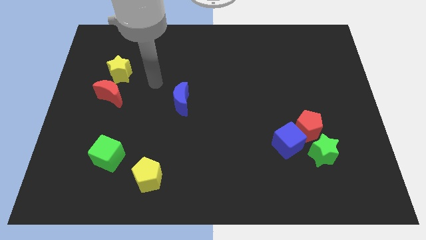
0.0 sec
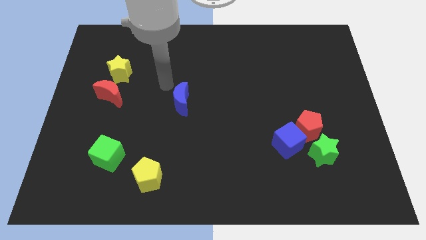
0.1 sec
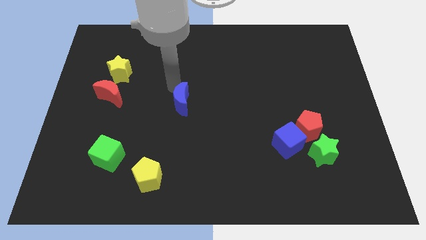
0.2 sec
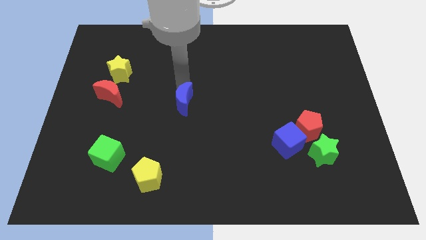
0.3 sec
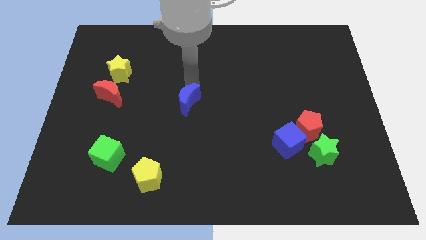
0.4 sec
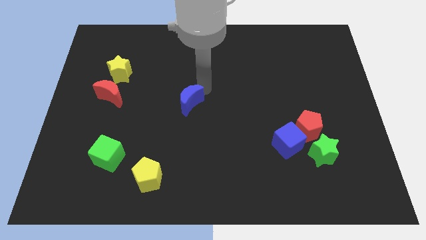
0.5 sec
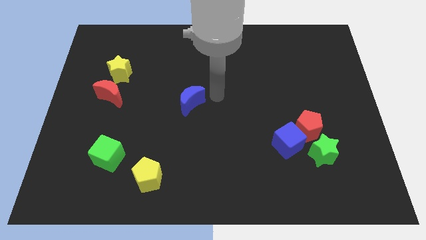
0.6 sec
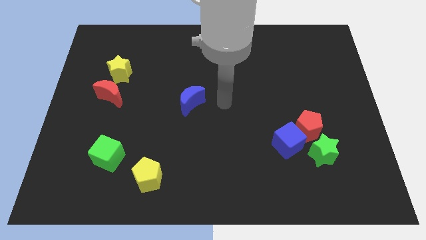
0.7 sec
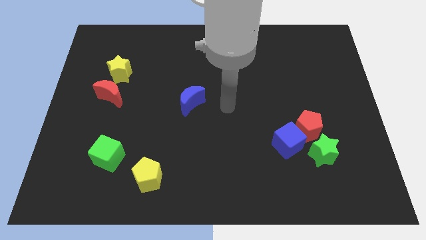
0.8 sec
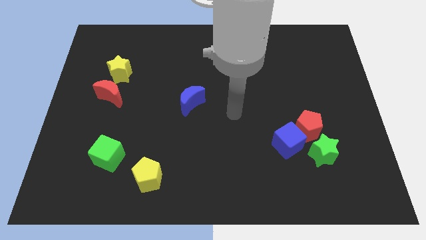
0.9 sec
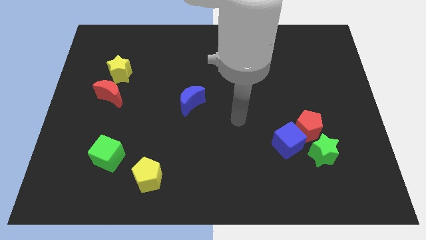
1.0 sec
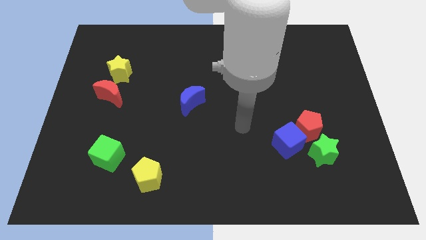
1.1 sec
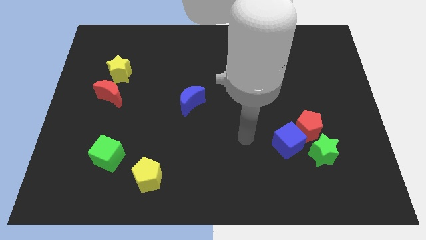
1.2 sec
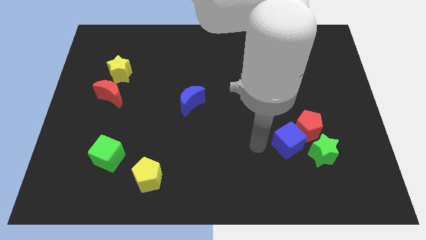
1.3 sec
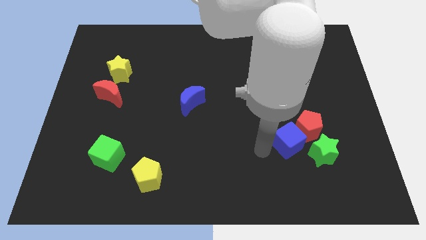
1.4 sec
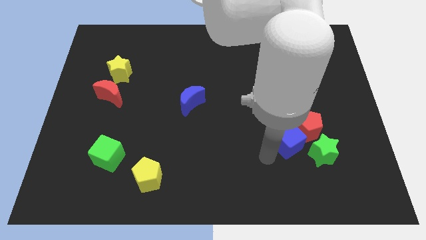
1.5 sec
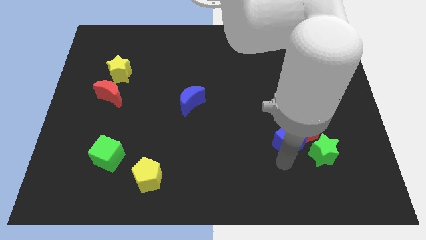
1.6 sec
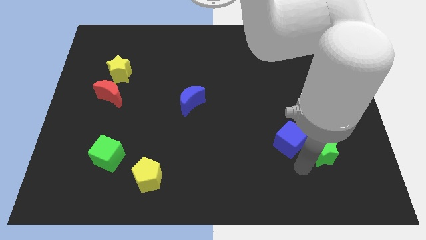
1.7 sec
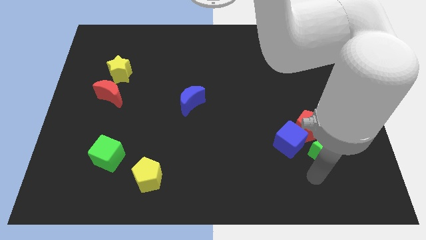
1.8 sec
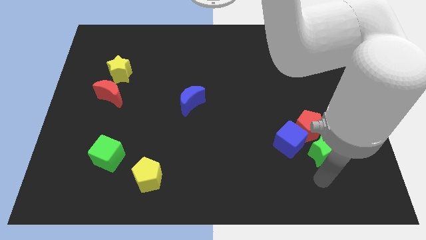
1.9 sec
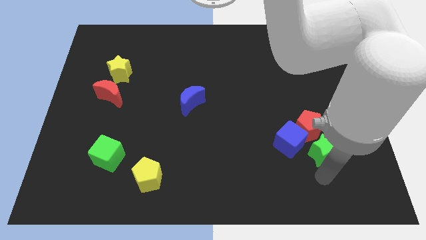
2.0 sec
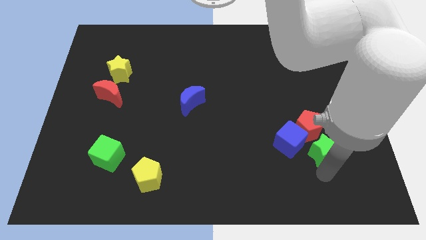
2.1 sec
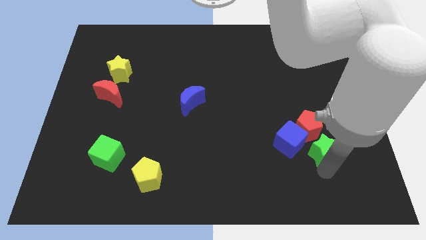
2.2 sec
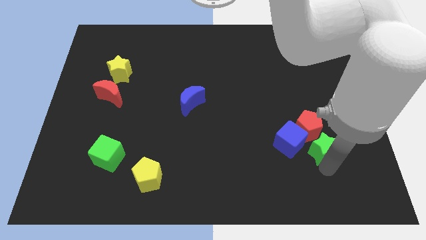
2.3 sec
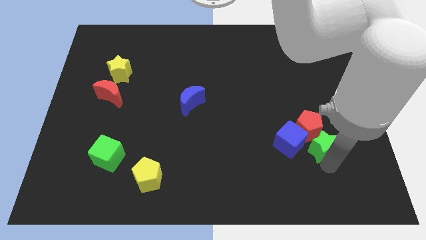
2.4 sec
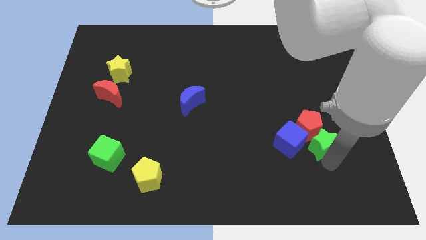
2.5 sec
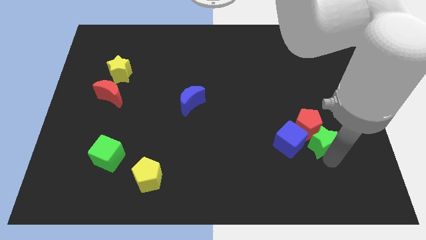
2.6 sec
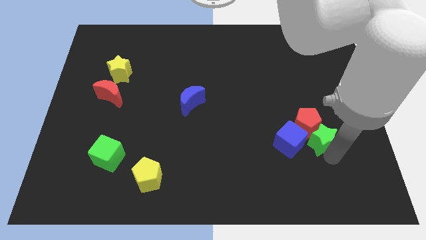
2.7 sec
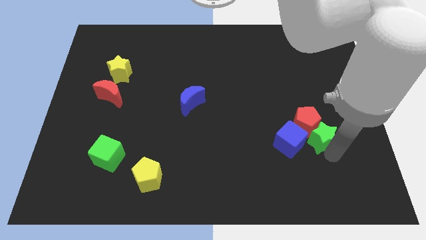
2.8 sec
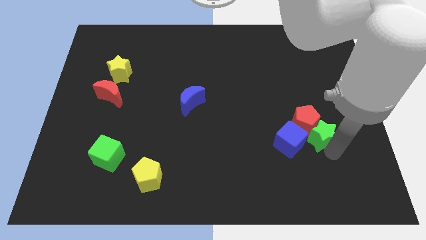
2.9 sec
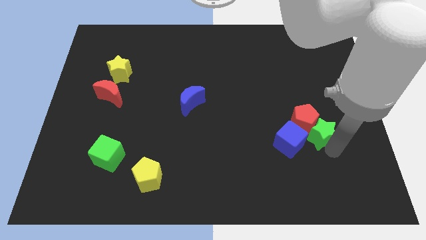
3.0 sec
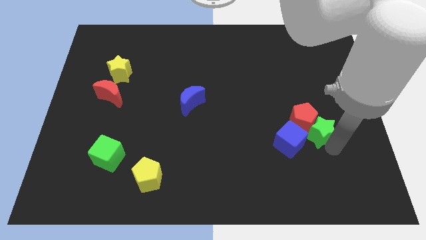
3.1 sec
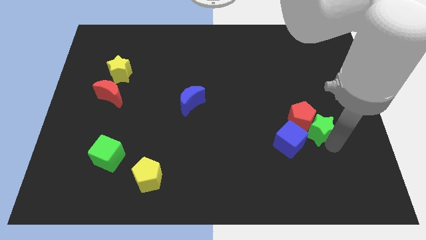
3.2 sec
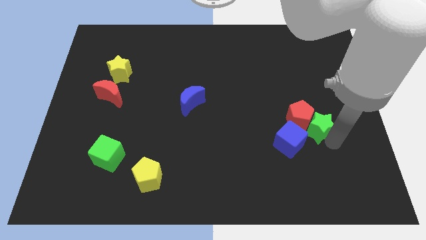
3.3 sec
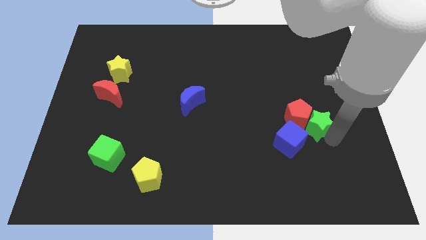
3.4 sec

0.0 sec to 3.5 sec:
slightly move the green star upwards

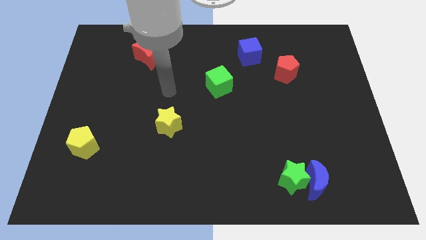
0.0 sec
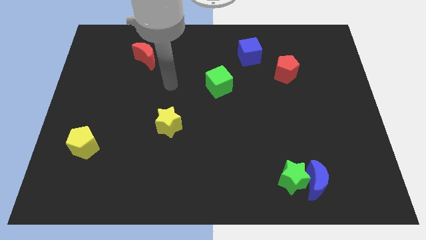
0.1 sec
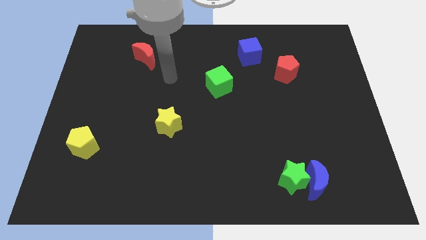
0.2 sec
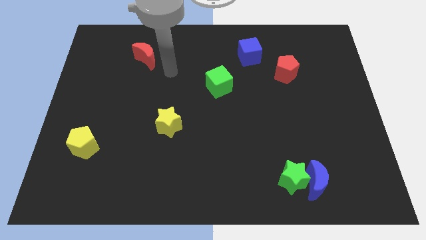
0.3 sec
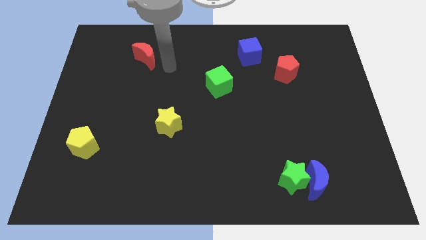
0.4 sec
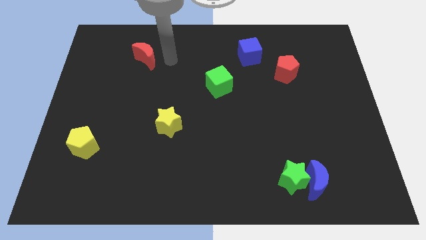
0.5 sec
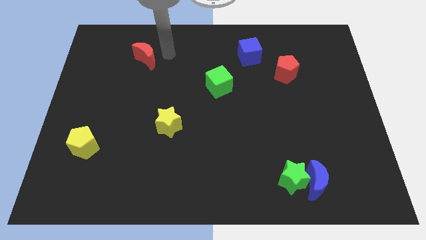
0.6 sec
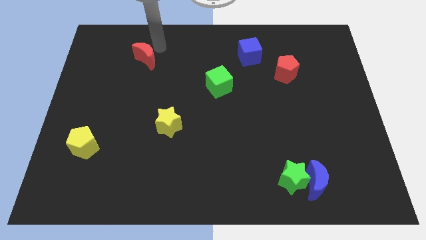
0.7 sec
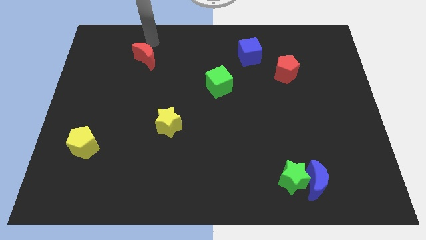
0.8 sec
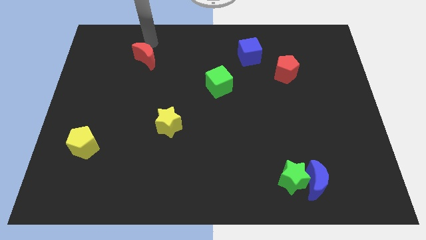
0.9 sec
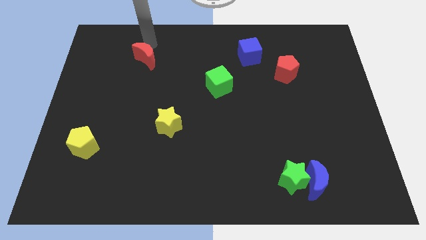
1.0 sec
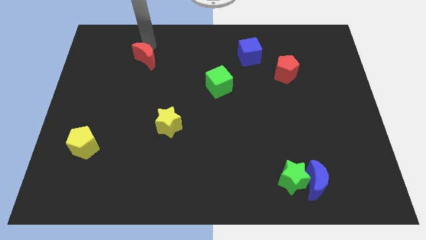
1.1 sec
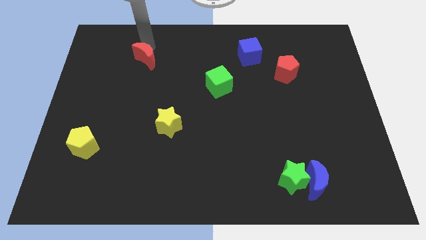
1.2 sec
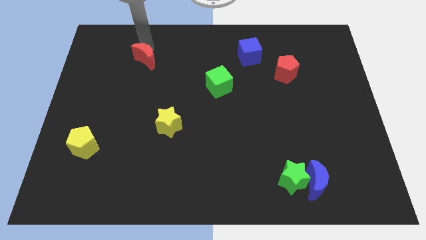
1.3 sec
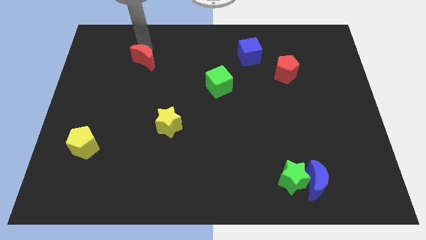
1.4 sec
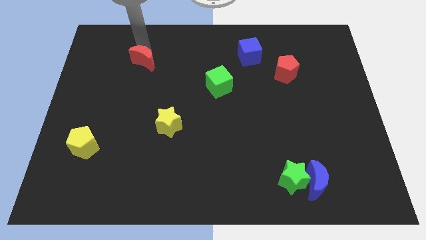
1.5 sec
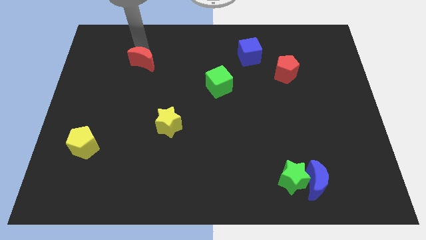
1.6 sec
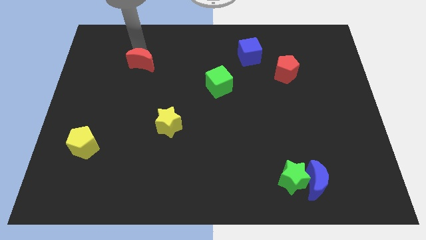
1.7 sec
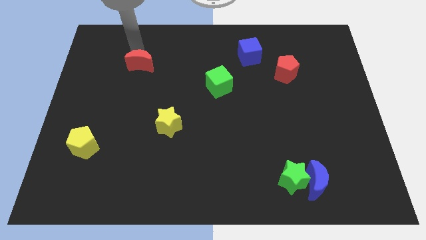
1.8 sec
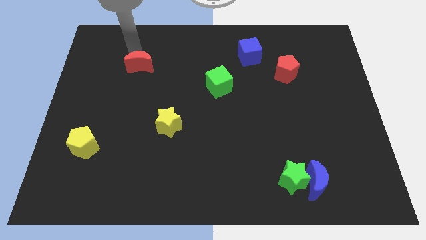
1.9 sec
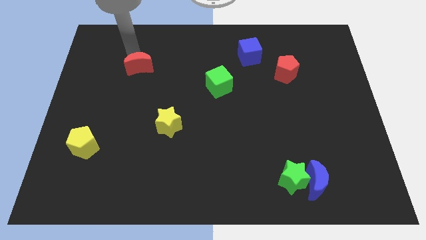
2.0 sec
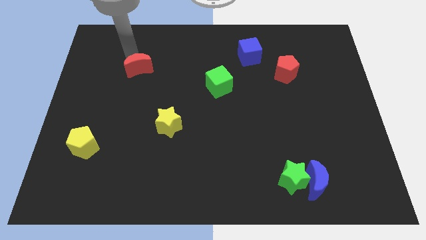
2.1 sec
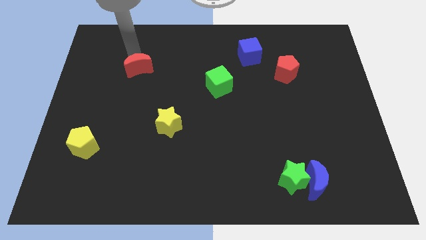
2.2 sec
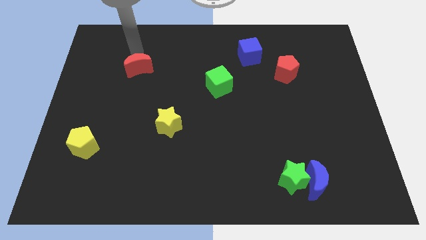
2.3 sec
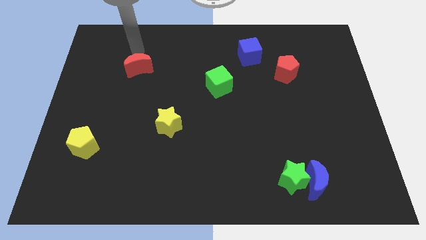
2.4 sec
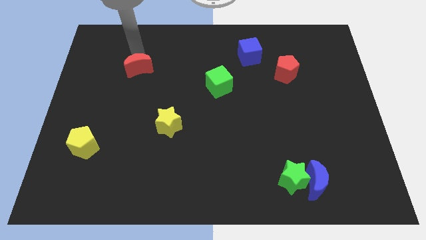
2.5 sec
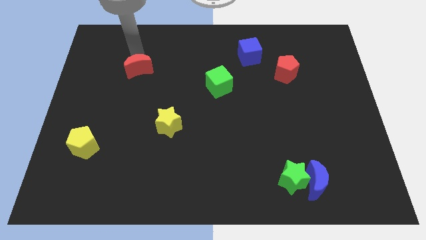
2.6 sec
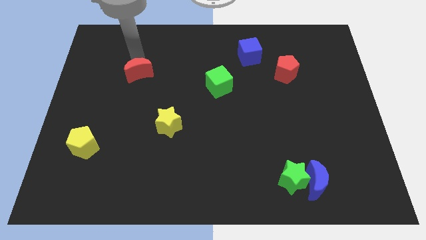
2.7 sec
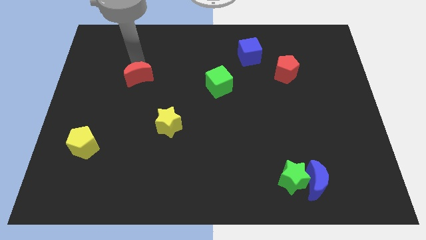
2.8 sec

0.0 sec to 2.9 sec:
push the red moon a little downwards

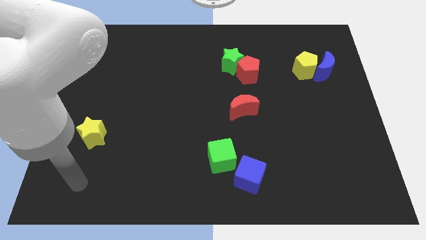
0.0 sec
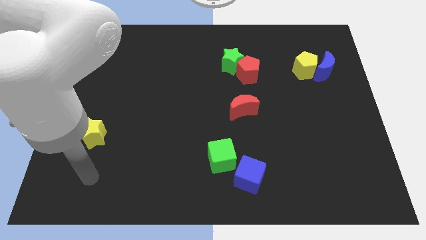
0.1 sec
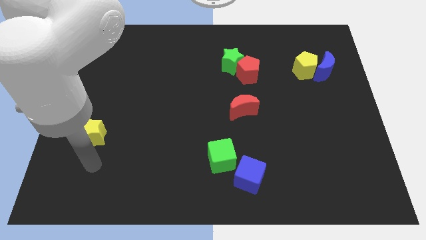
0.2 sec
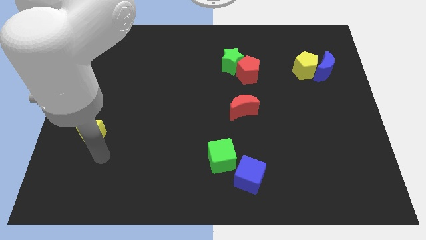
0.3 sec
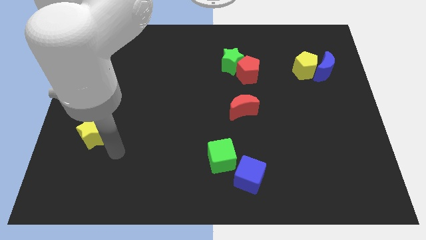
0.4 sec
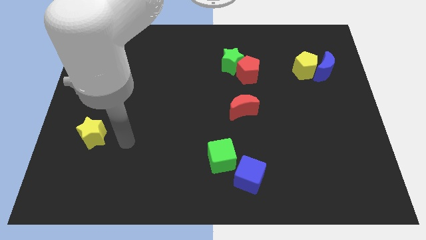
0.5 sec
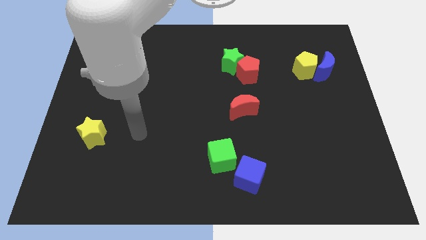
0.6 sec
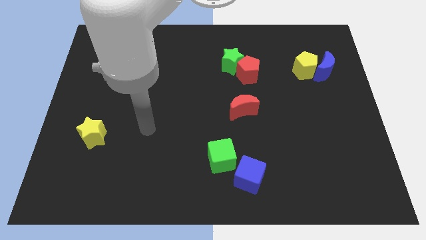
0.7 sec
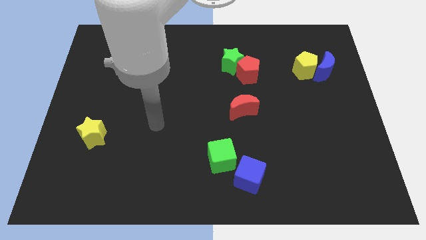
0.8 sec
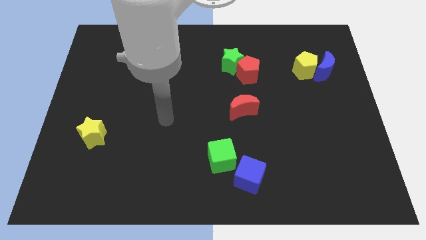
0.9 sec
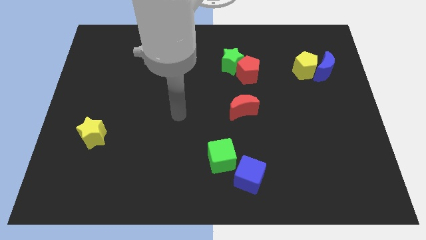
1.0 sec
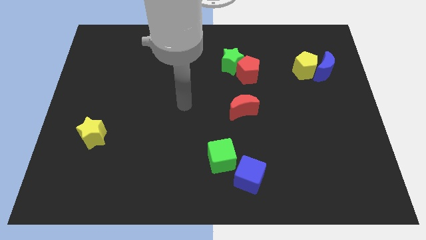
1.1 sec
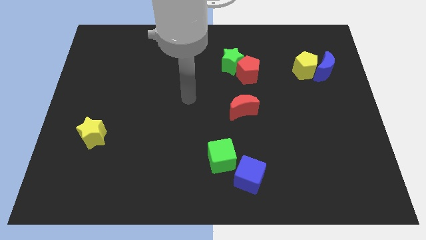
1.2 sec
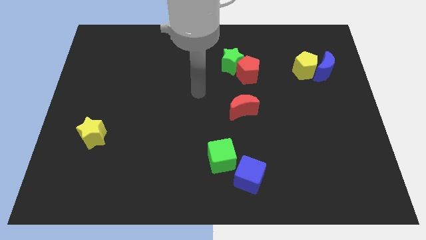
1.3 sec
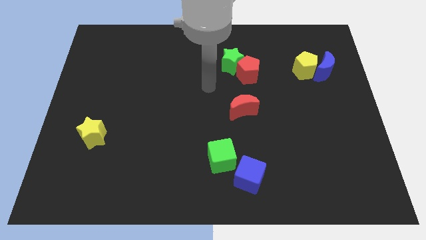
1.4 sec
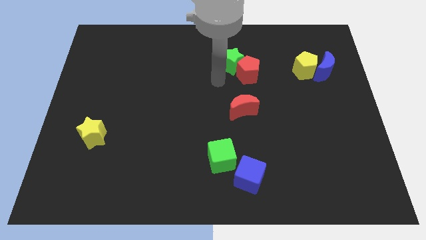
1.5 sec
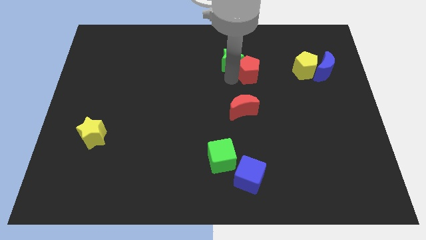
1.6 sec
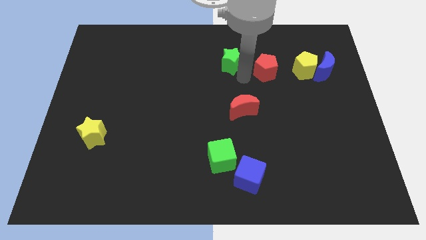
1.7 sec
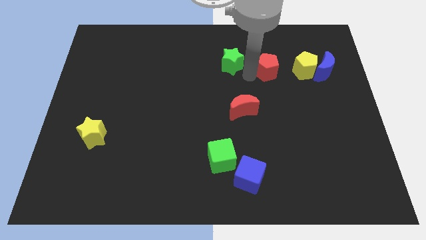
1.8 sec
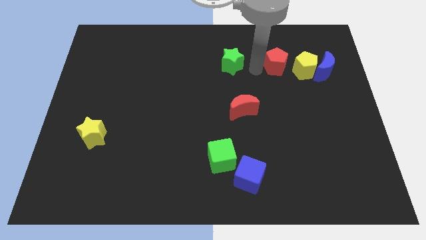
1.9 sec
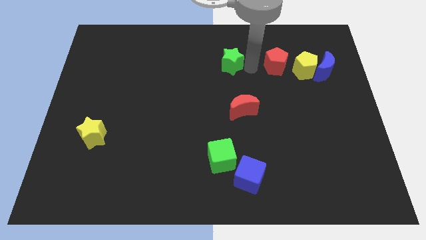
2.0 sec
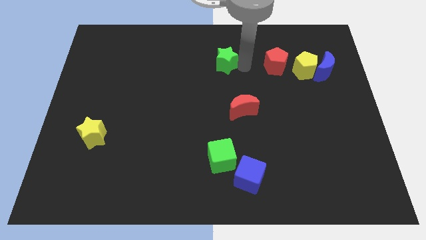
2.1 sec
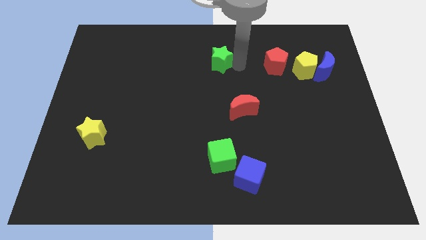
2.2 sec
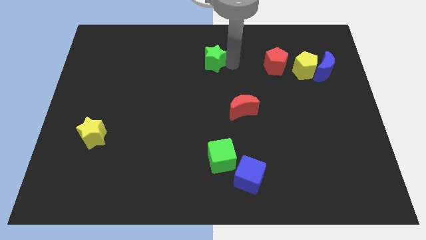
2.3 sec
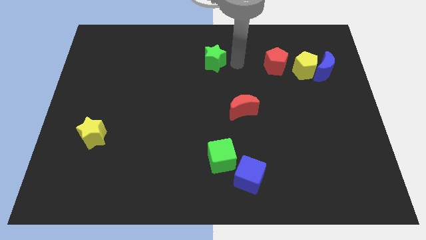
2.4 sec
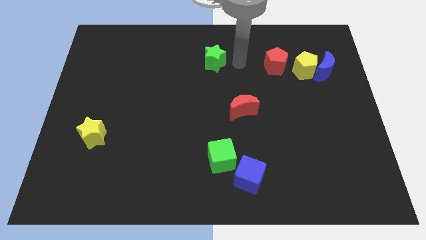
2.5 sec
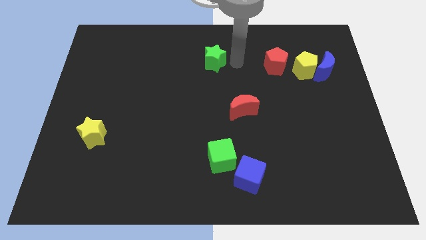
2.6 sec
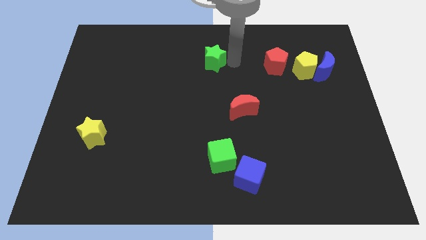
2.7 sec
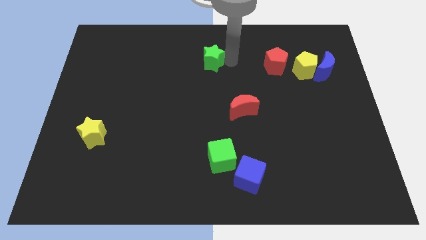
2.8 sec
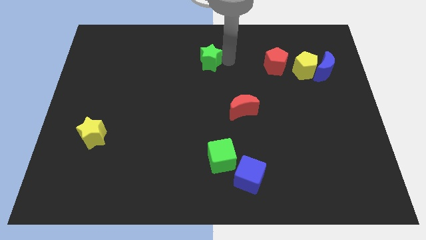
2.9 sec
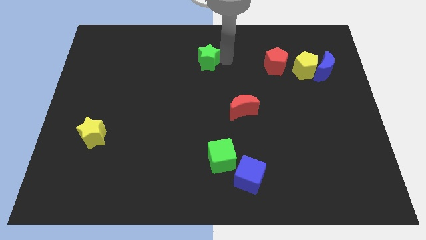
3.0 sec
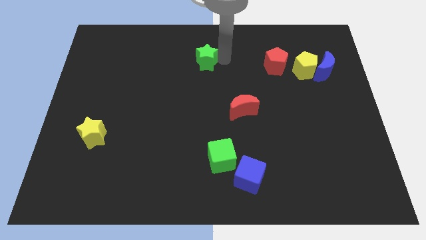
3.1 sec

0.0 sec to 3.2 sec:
slightly push the green star left
